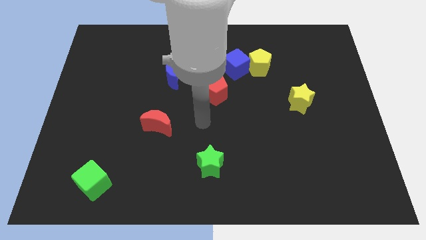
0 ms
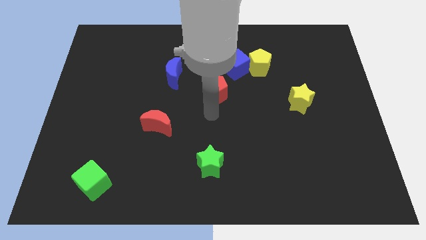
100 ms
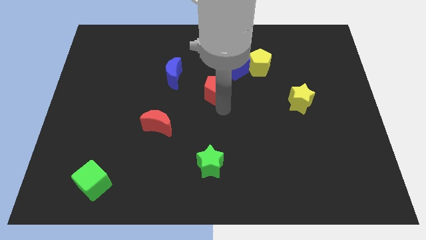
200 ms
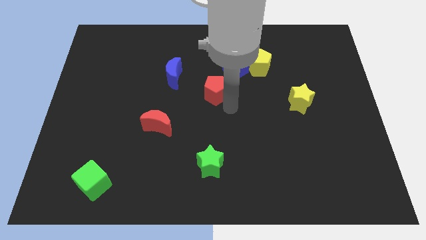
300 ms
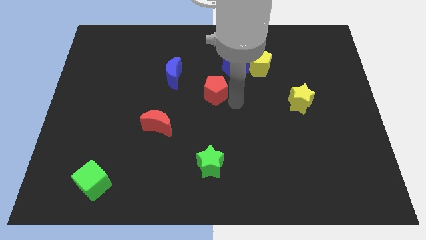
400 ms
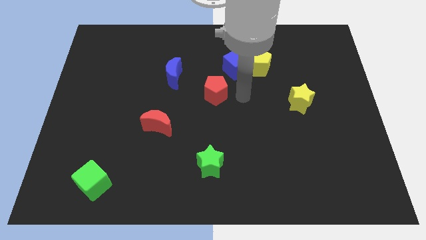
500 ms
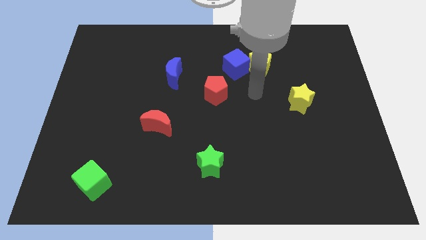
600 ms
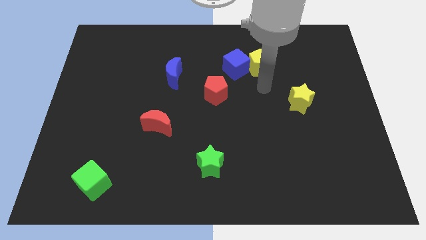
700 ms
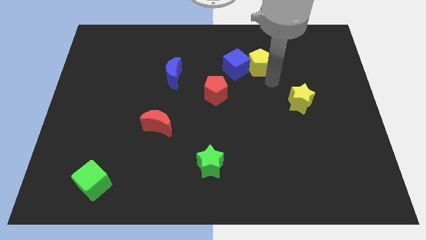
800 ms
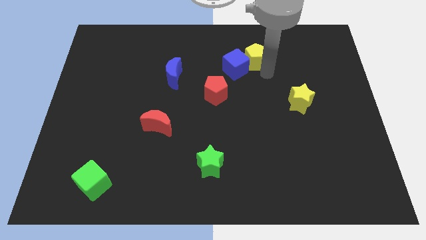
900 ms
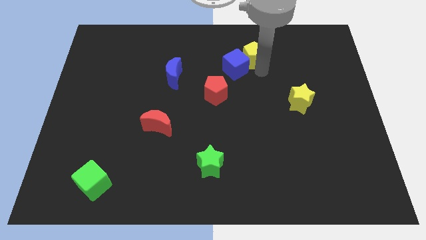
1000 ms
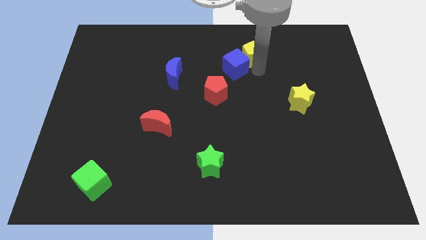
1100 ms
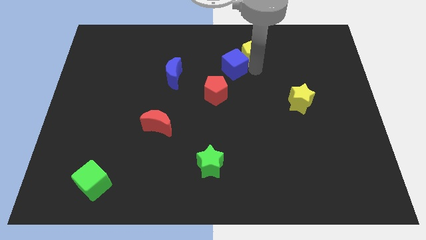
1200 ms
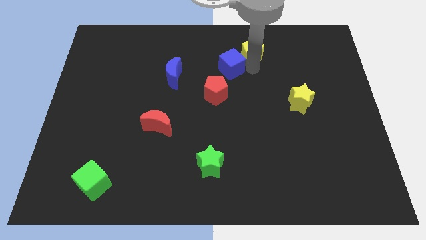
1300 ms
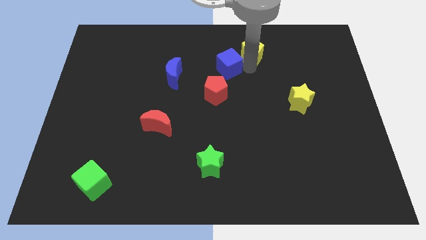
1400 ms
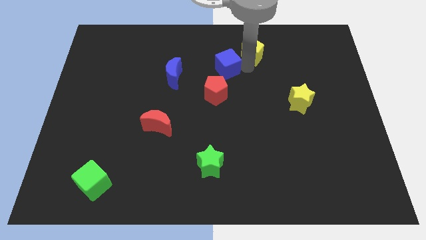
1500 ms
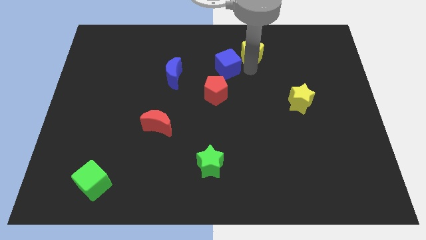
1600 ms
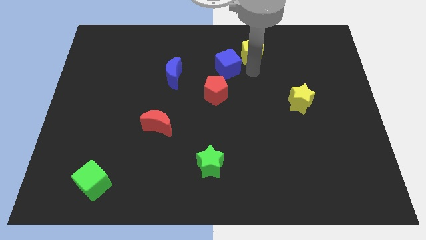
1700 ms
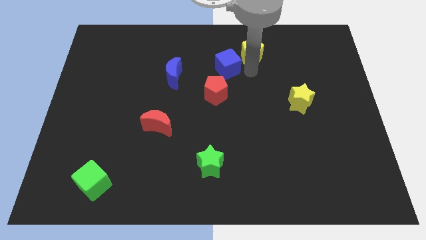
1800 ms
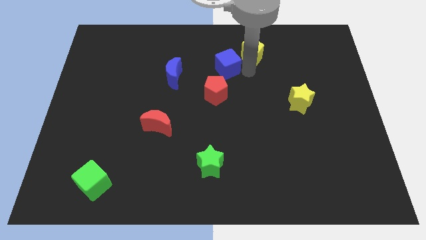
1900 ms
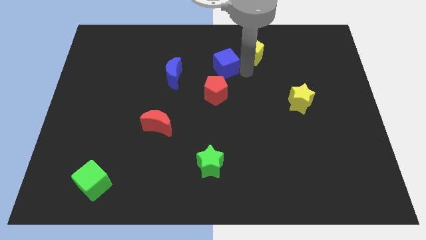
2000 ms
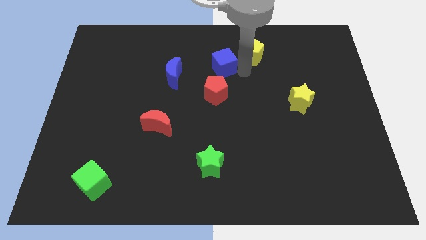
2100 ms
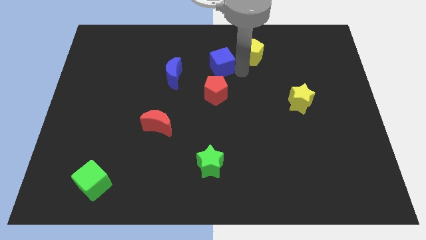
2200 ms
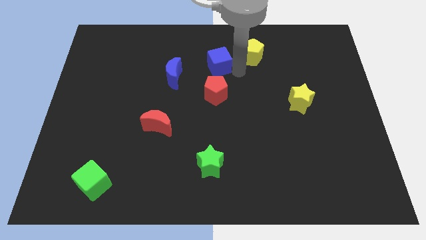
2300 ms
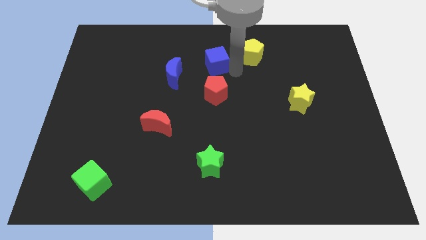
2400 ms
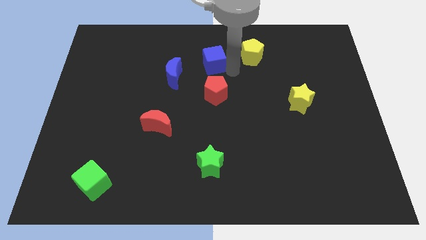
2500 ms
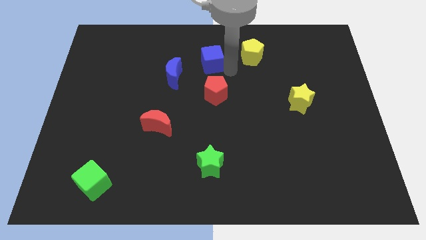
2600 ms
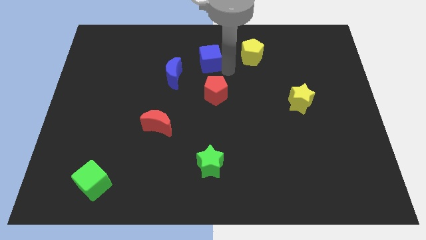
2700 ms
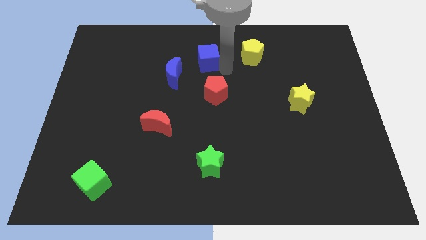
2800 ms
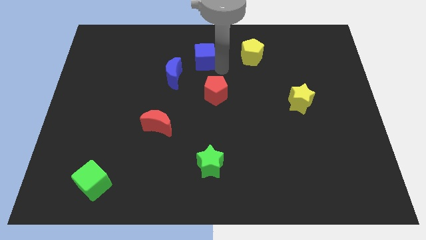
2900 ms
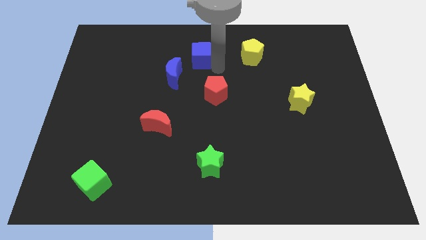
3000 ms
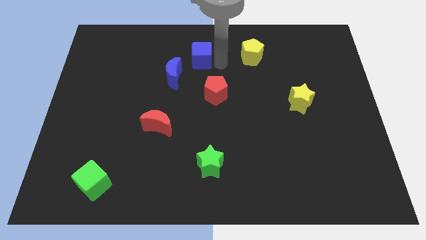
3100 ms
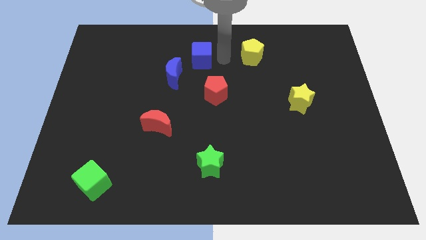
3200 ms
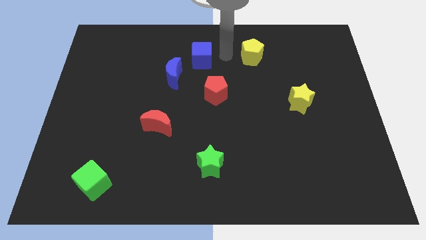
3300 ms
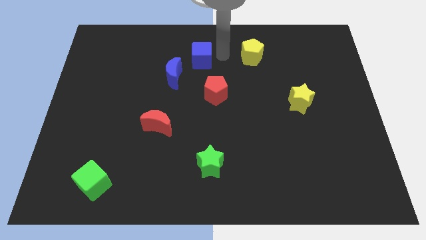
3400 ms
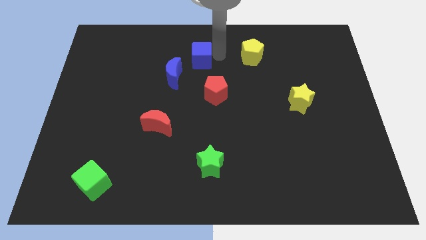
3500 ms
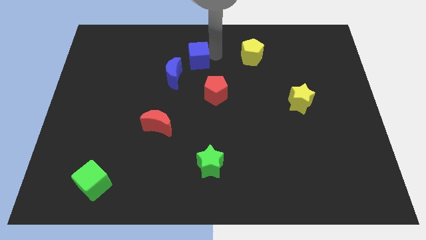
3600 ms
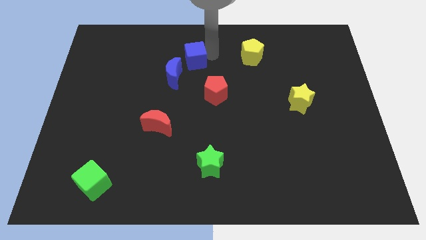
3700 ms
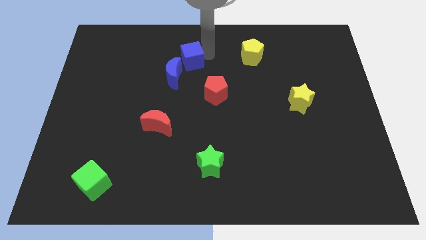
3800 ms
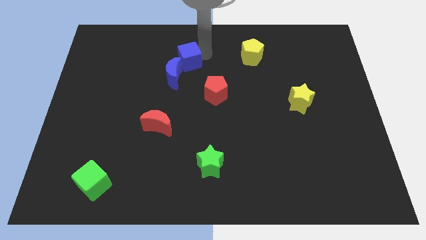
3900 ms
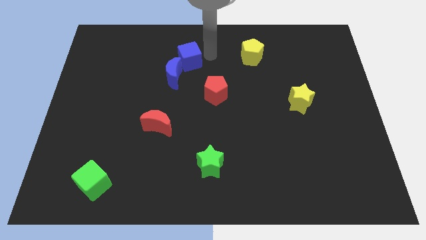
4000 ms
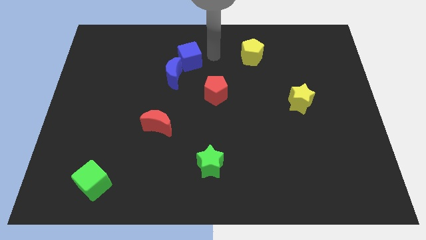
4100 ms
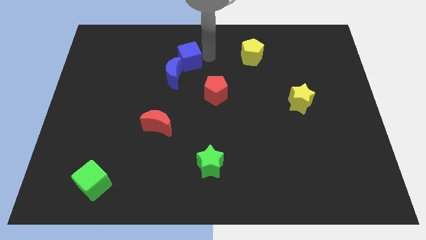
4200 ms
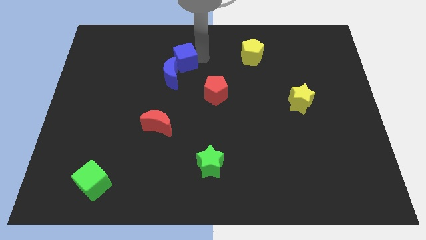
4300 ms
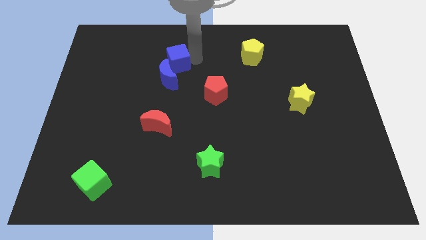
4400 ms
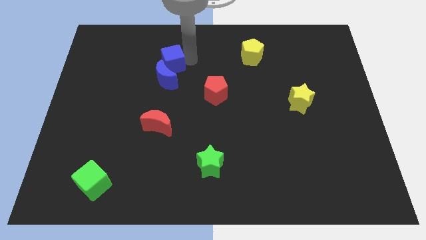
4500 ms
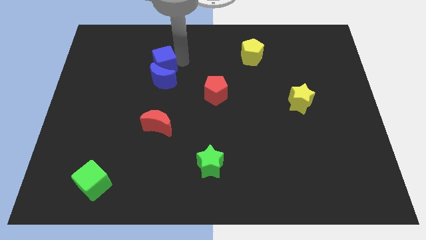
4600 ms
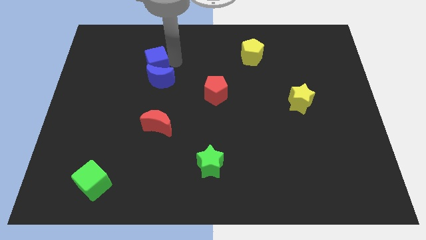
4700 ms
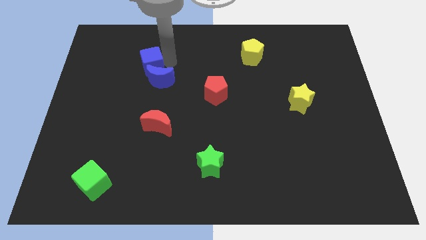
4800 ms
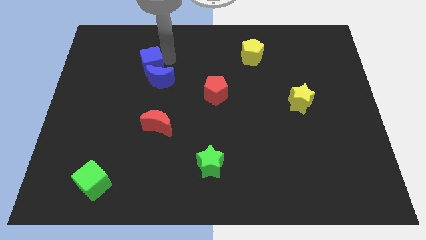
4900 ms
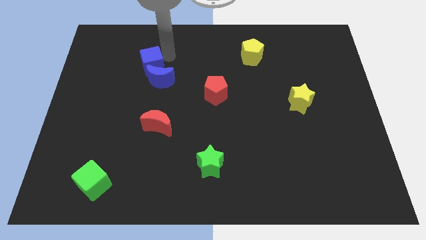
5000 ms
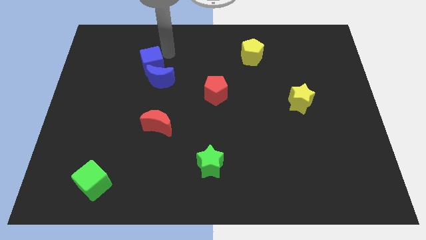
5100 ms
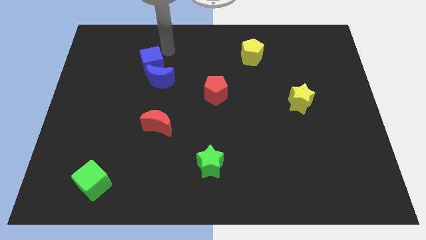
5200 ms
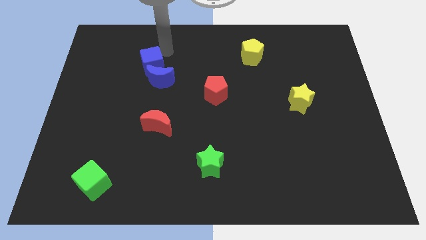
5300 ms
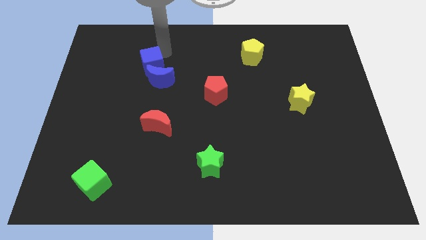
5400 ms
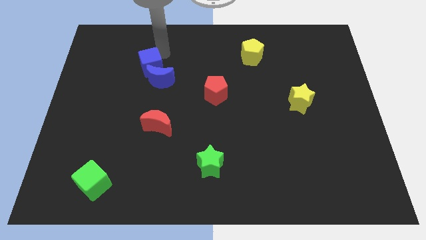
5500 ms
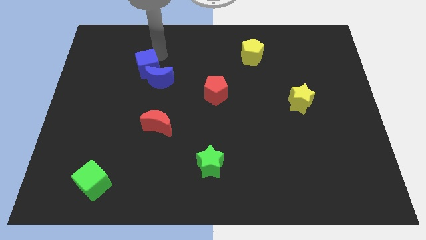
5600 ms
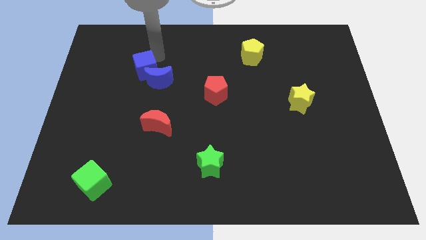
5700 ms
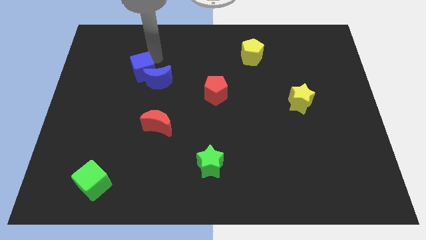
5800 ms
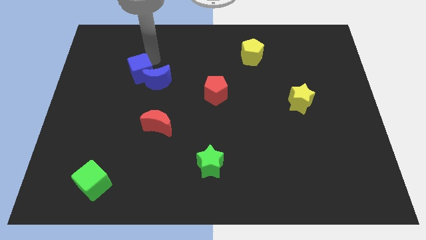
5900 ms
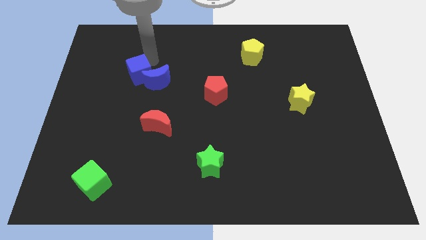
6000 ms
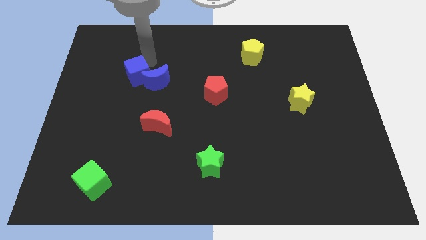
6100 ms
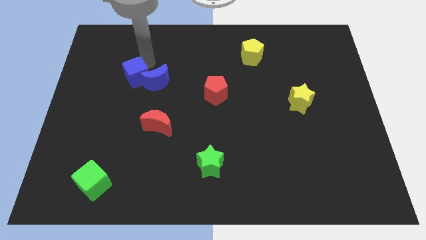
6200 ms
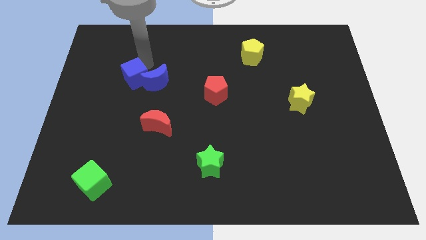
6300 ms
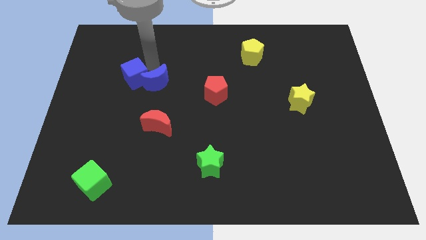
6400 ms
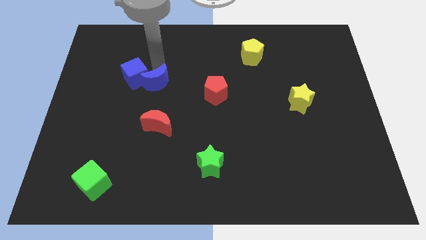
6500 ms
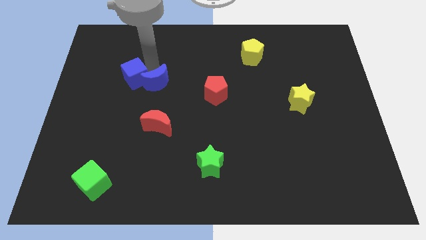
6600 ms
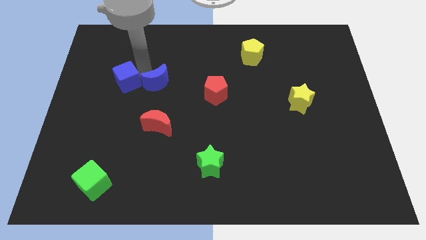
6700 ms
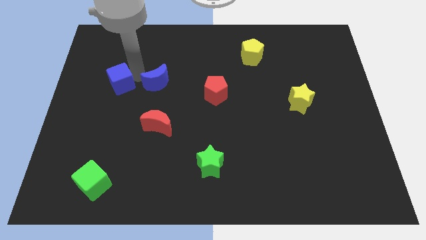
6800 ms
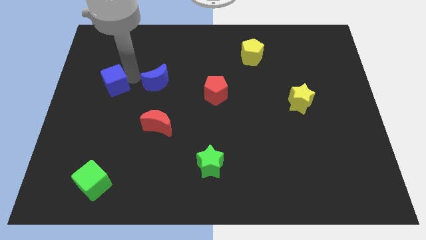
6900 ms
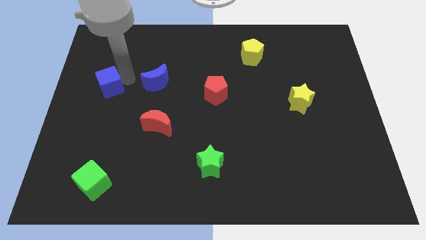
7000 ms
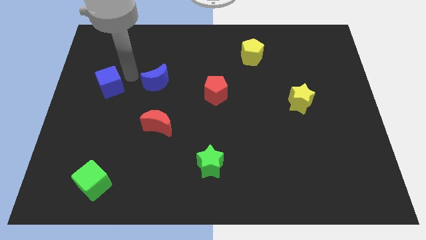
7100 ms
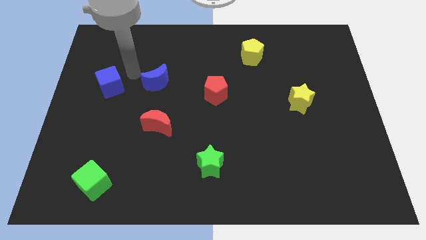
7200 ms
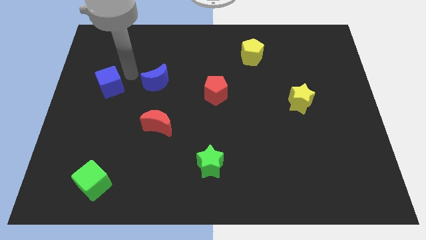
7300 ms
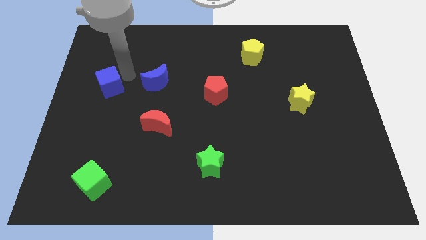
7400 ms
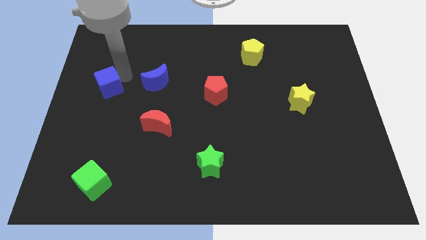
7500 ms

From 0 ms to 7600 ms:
slide the blue cube to the left side
